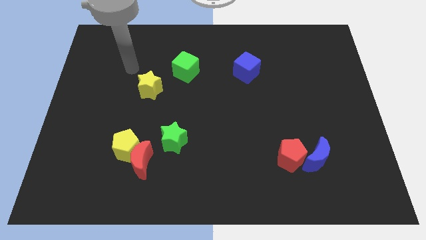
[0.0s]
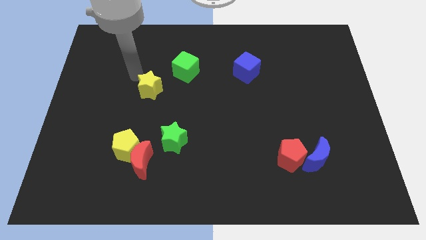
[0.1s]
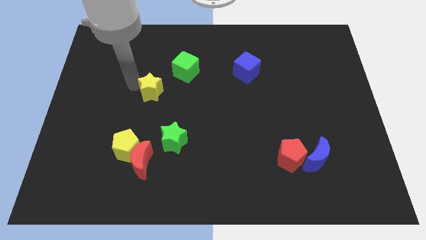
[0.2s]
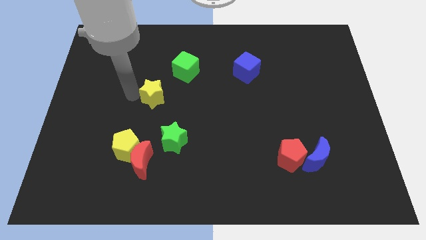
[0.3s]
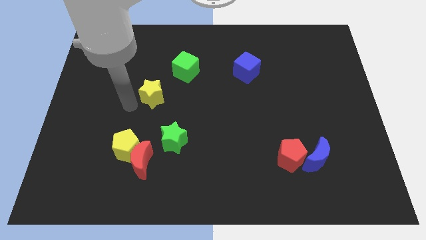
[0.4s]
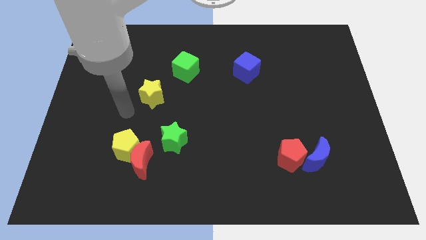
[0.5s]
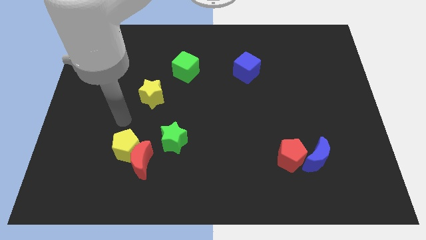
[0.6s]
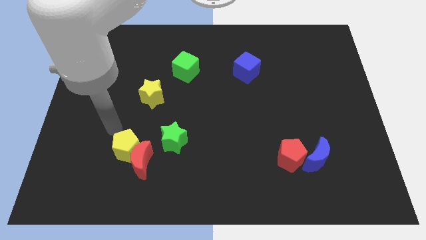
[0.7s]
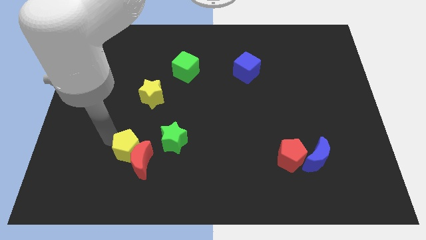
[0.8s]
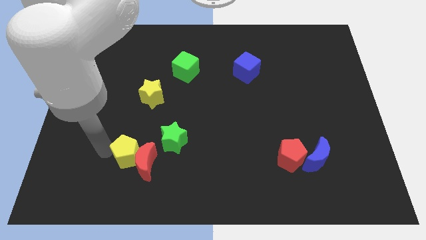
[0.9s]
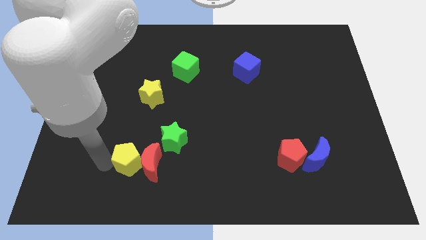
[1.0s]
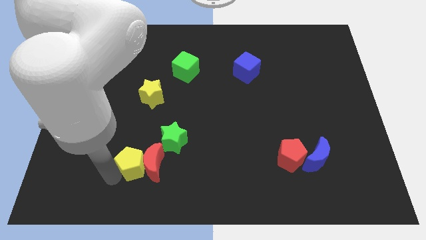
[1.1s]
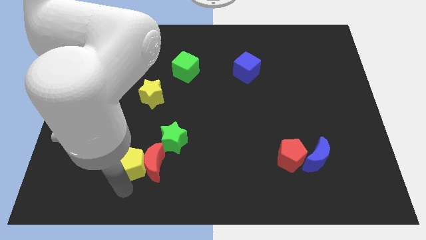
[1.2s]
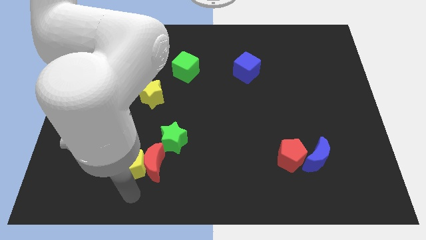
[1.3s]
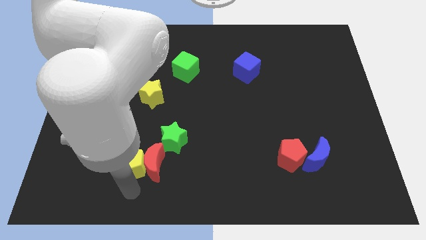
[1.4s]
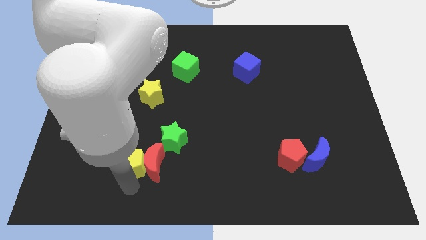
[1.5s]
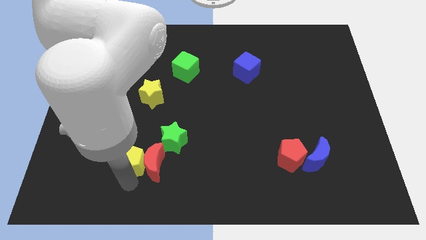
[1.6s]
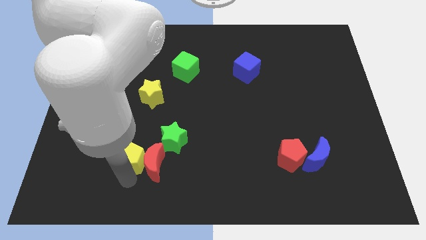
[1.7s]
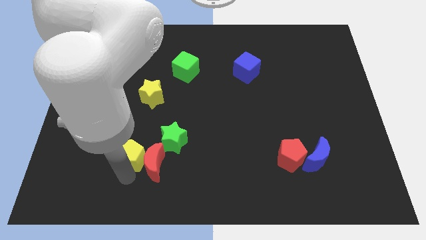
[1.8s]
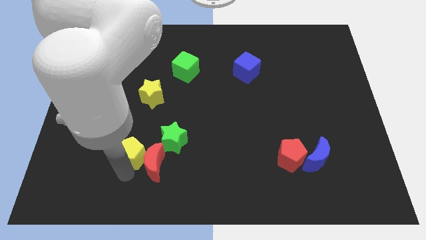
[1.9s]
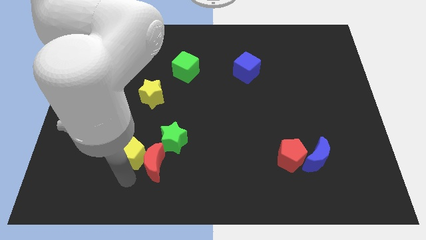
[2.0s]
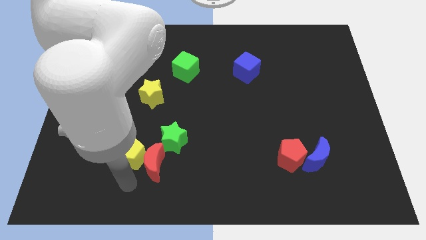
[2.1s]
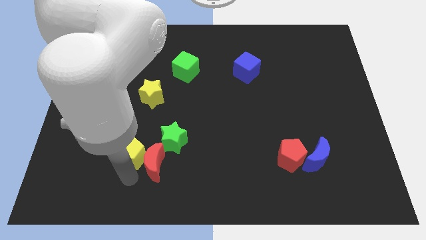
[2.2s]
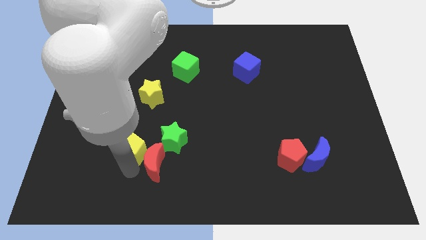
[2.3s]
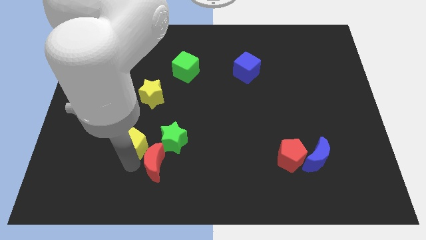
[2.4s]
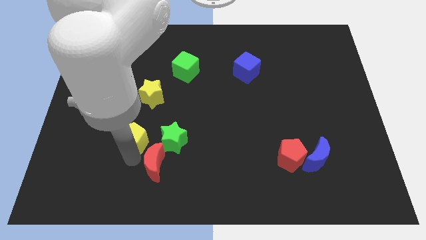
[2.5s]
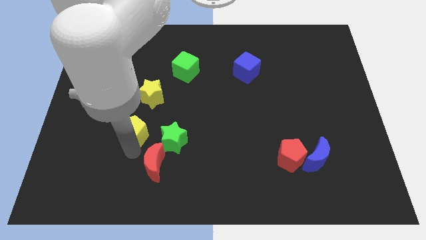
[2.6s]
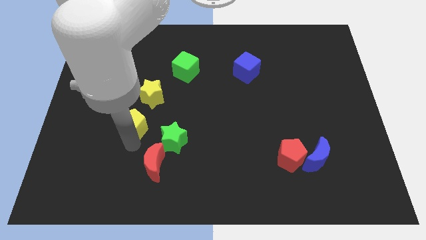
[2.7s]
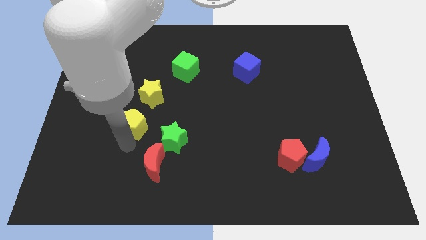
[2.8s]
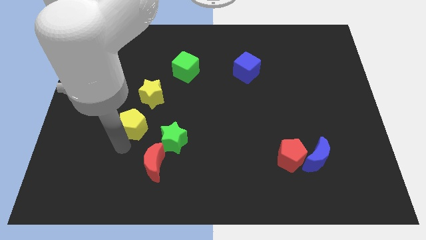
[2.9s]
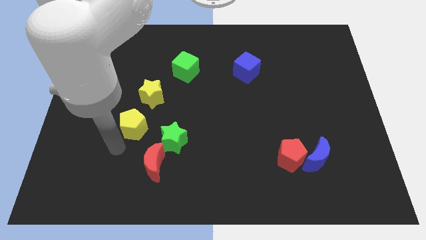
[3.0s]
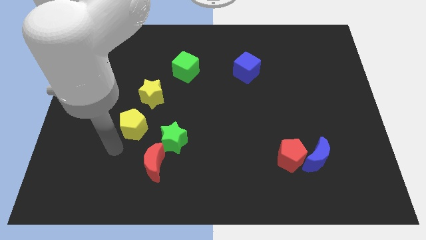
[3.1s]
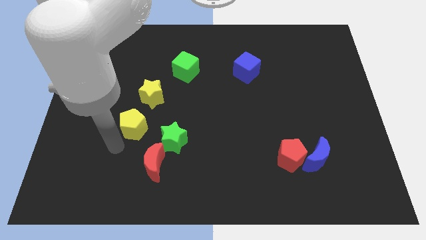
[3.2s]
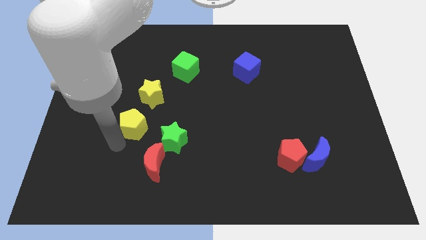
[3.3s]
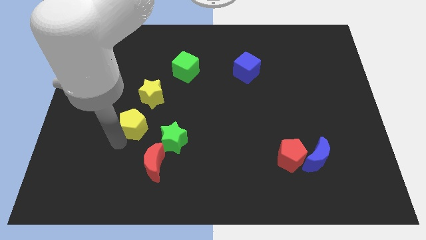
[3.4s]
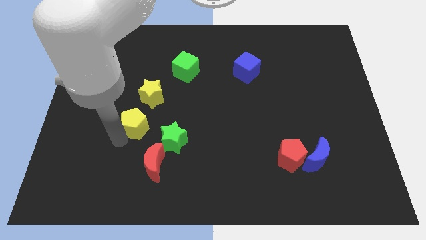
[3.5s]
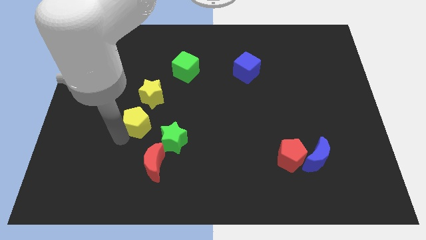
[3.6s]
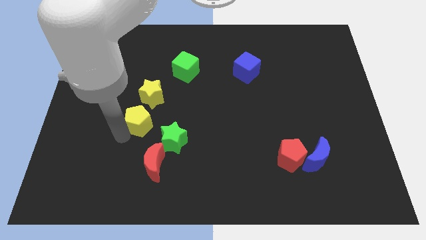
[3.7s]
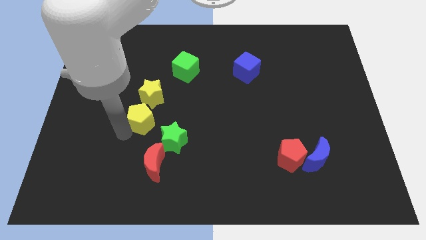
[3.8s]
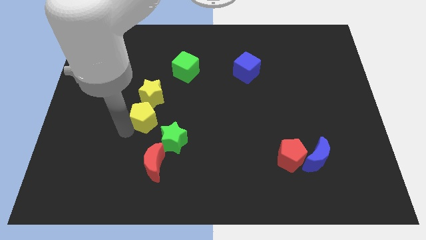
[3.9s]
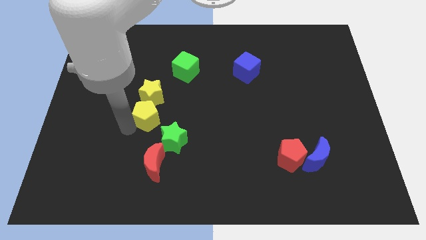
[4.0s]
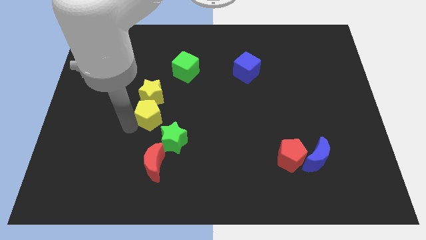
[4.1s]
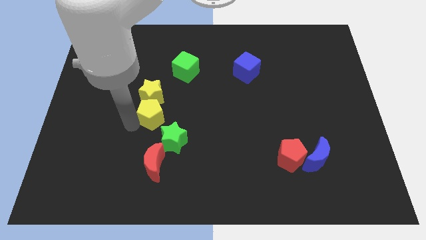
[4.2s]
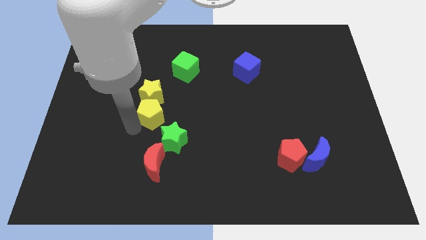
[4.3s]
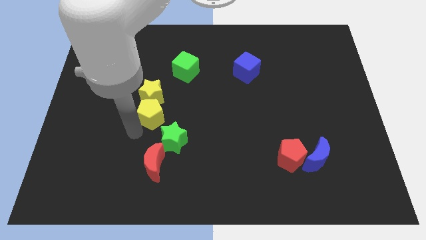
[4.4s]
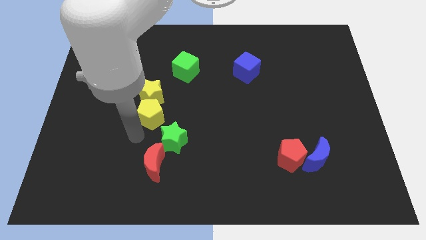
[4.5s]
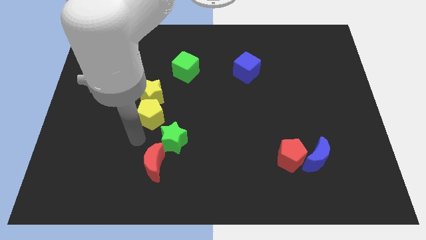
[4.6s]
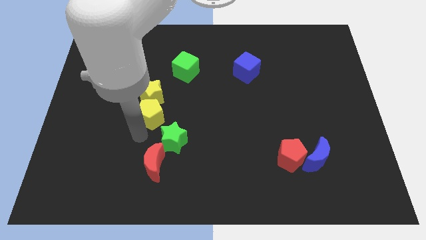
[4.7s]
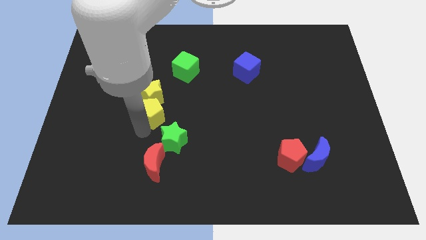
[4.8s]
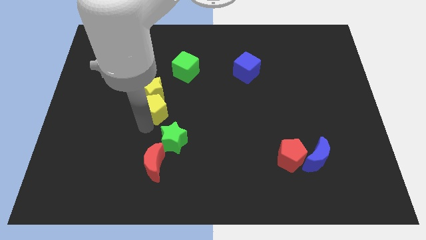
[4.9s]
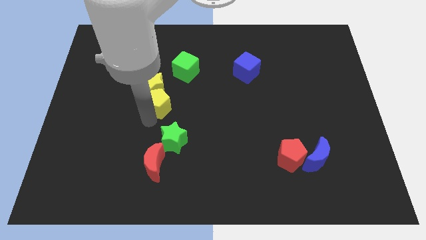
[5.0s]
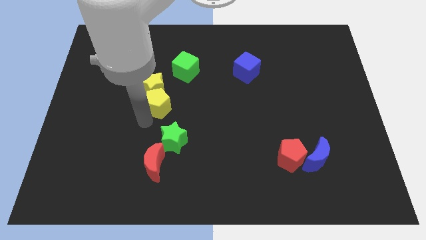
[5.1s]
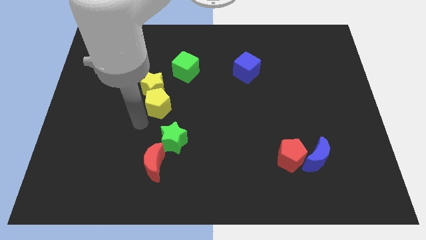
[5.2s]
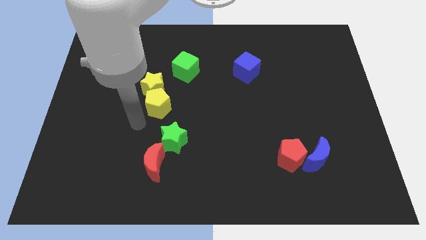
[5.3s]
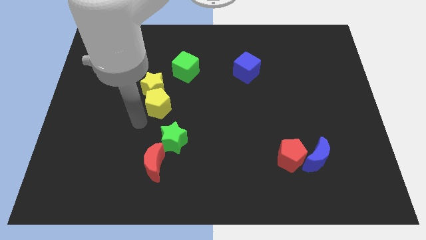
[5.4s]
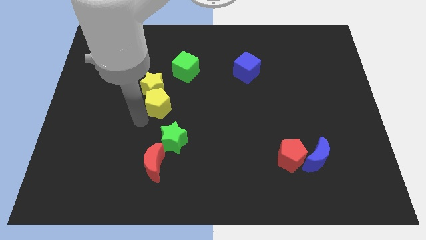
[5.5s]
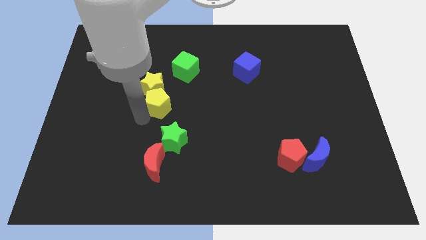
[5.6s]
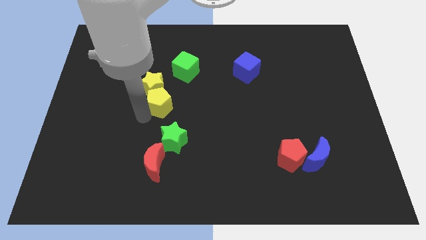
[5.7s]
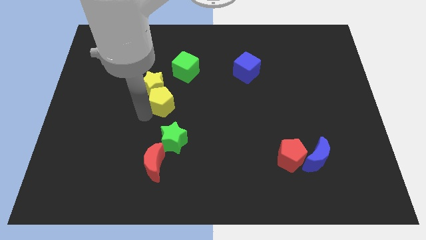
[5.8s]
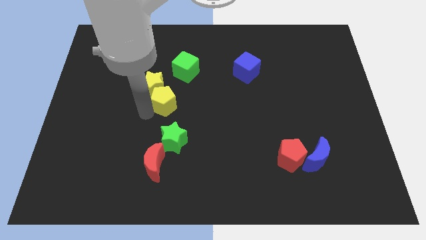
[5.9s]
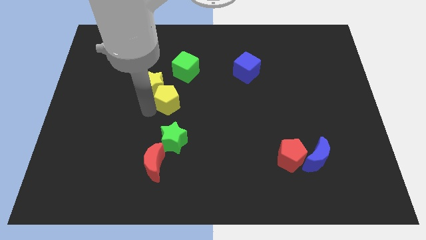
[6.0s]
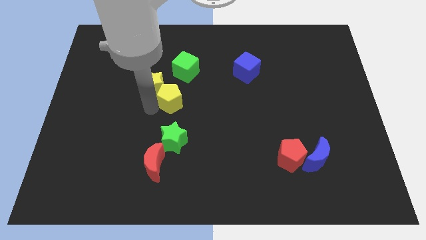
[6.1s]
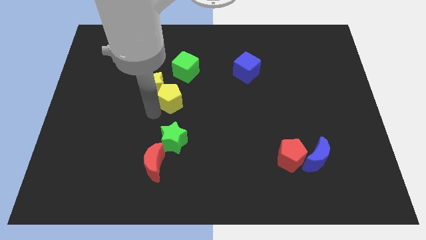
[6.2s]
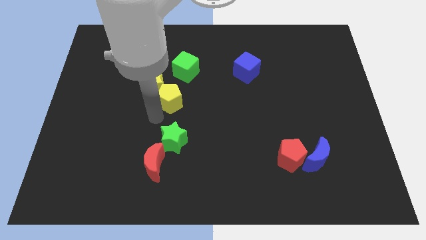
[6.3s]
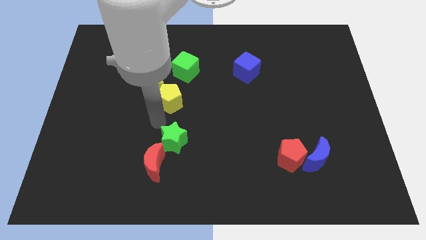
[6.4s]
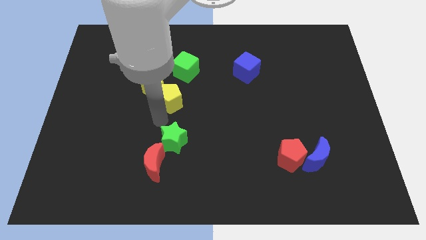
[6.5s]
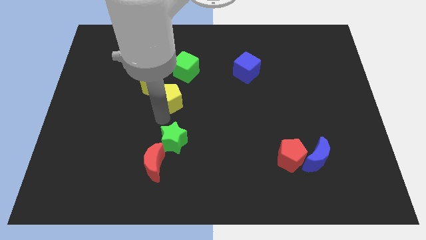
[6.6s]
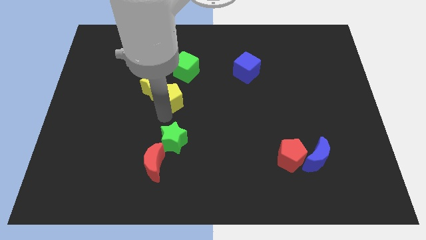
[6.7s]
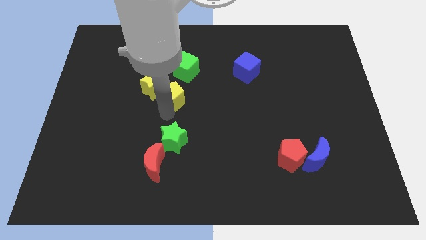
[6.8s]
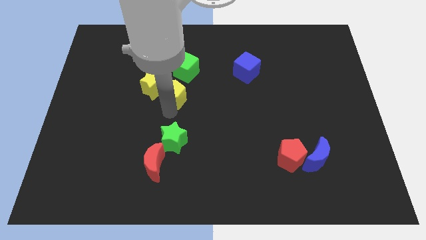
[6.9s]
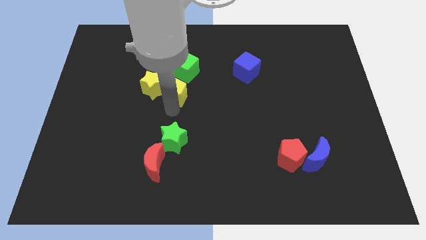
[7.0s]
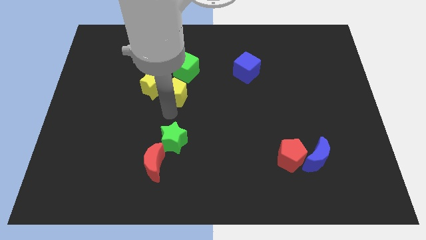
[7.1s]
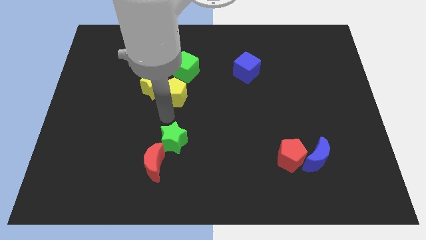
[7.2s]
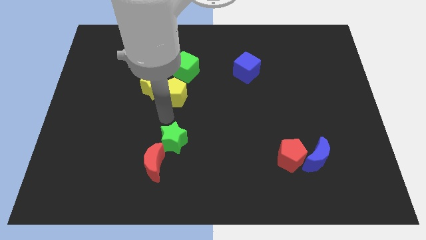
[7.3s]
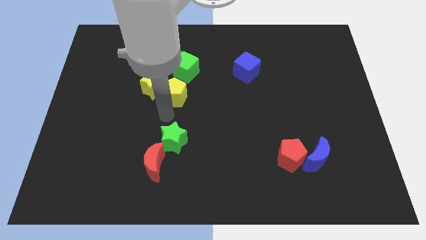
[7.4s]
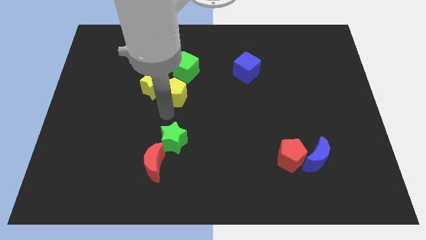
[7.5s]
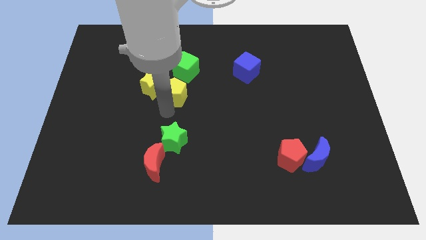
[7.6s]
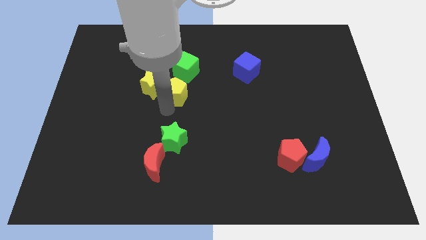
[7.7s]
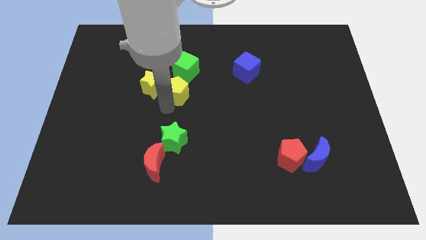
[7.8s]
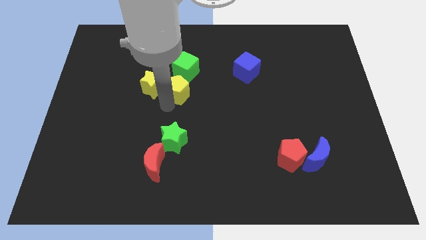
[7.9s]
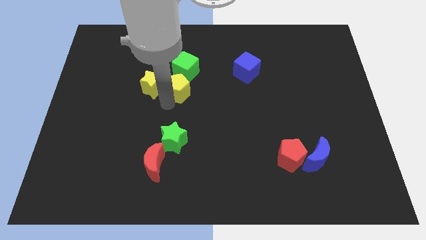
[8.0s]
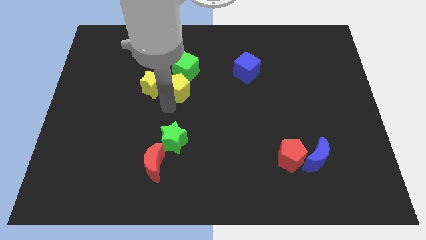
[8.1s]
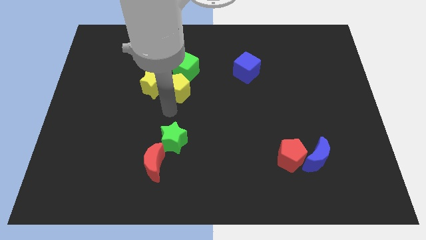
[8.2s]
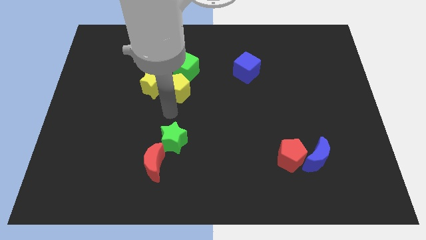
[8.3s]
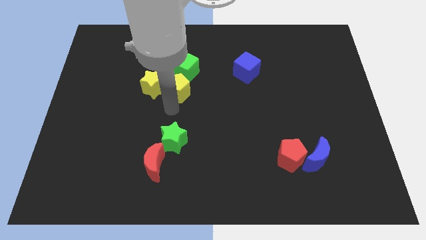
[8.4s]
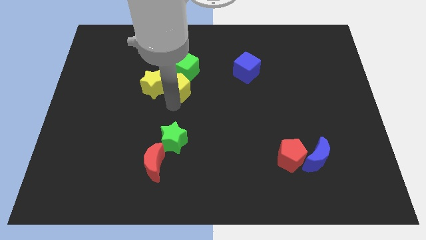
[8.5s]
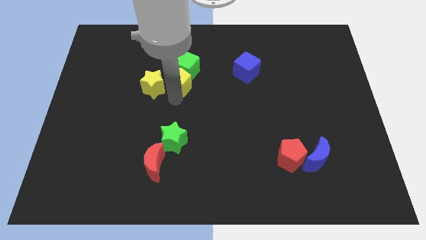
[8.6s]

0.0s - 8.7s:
slide the yellow pentagon towards the green cube
